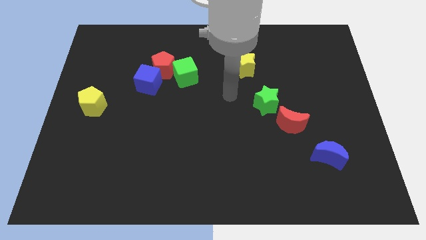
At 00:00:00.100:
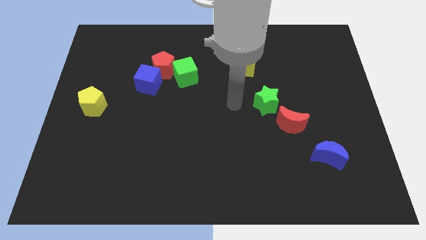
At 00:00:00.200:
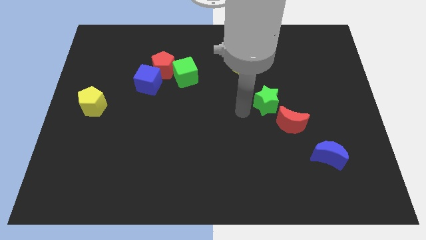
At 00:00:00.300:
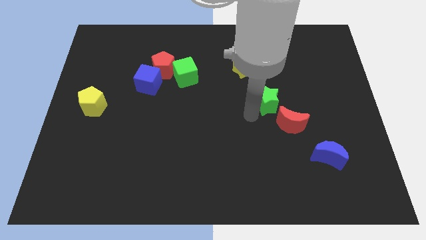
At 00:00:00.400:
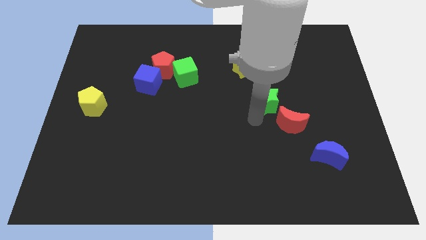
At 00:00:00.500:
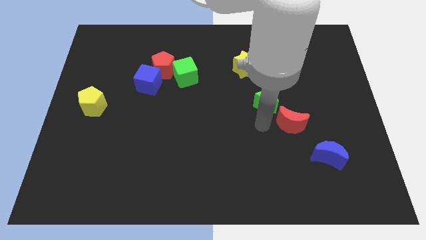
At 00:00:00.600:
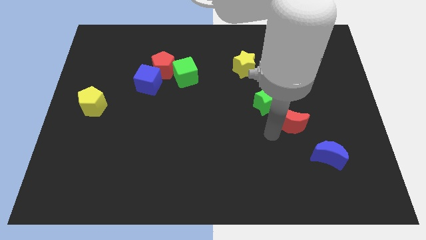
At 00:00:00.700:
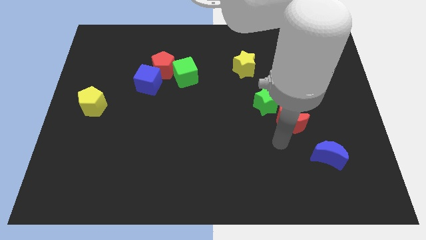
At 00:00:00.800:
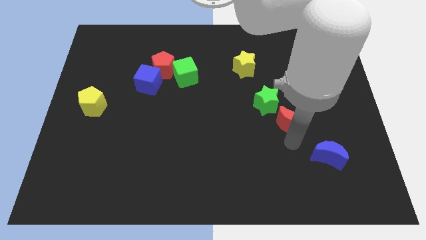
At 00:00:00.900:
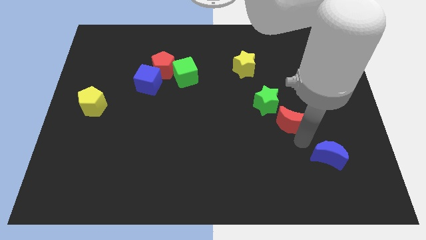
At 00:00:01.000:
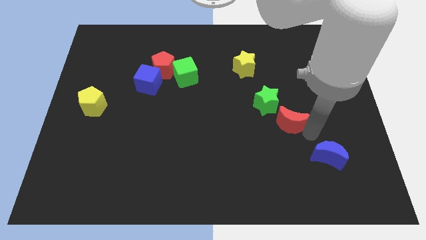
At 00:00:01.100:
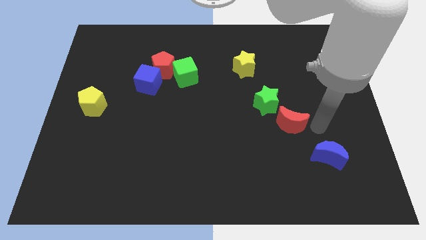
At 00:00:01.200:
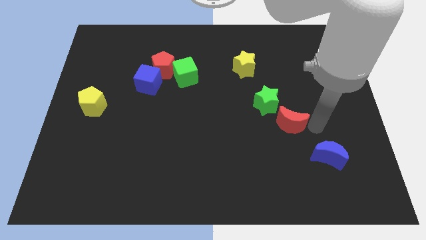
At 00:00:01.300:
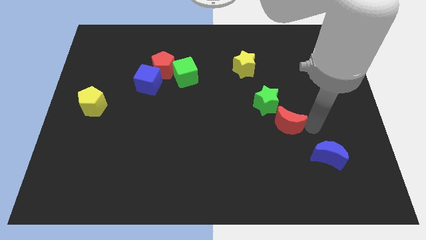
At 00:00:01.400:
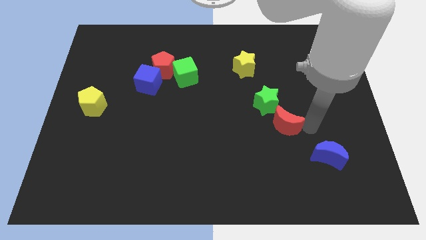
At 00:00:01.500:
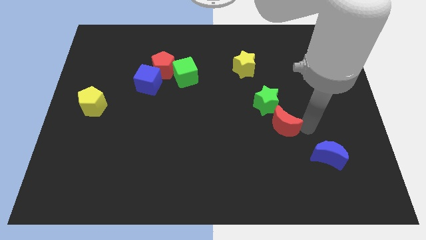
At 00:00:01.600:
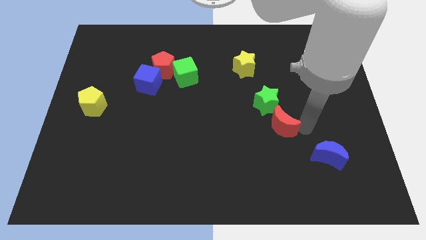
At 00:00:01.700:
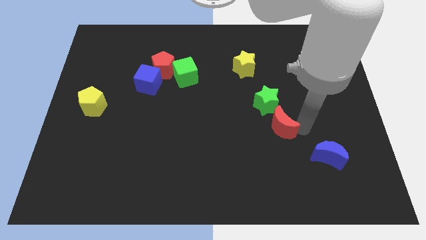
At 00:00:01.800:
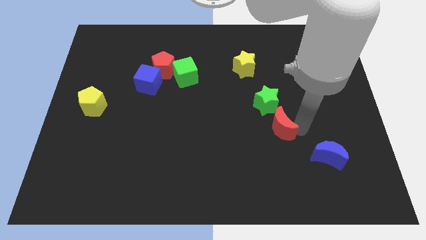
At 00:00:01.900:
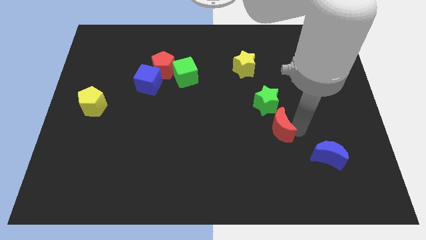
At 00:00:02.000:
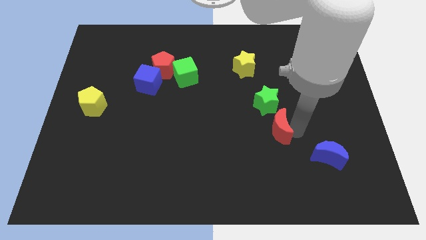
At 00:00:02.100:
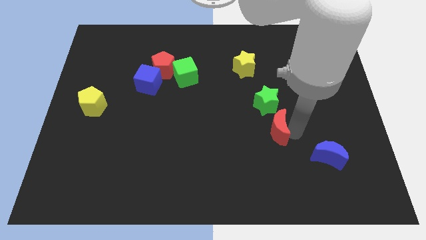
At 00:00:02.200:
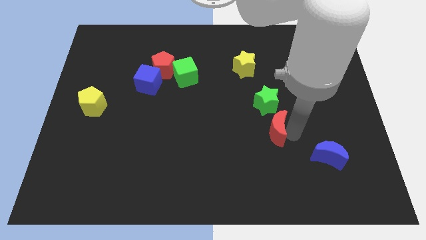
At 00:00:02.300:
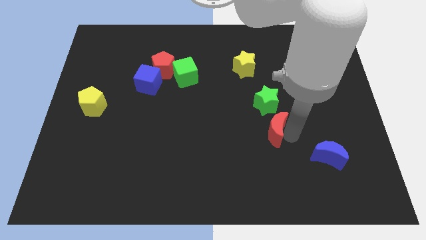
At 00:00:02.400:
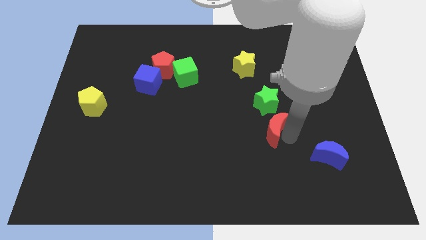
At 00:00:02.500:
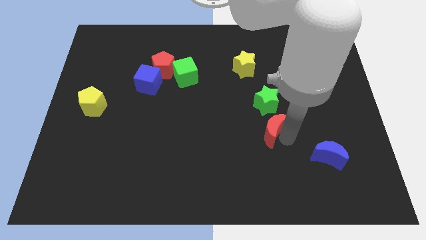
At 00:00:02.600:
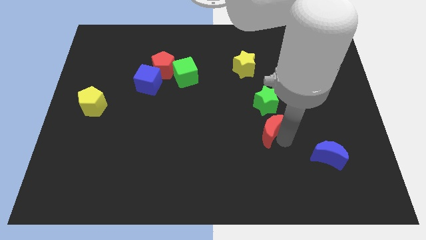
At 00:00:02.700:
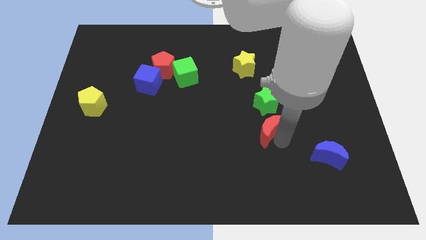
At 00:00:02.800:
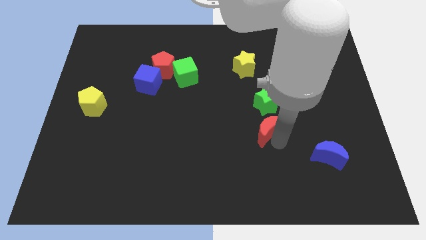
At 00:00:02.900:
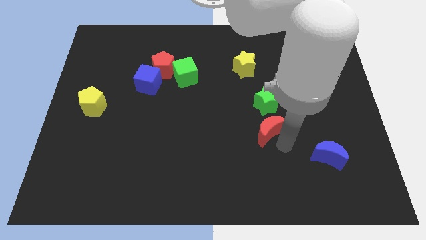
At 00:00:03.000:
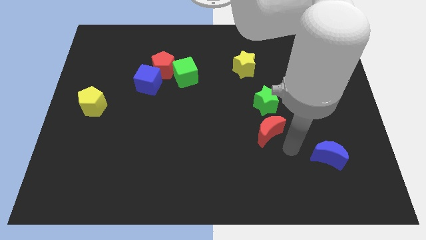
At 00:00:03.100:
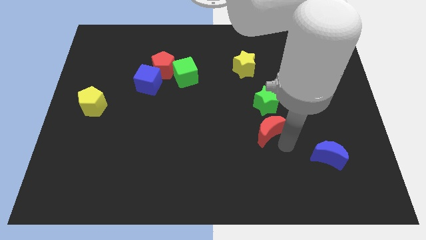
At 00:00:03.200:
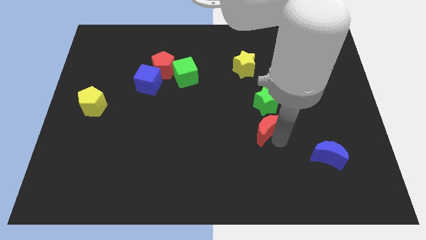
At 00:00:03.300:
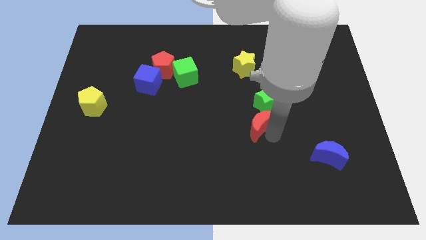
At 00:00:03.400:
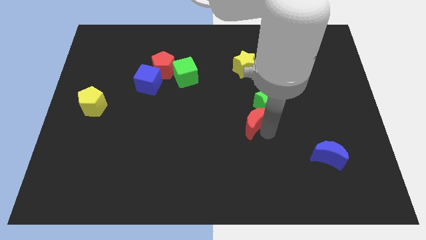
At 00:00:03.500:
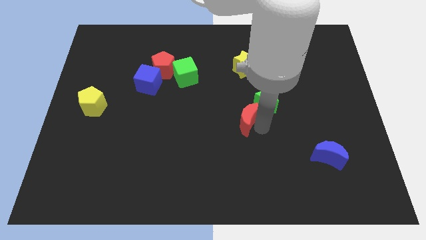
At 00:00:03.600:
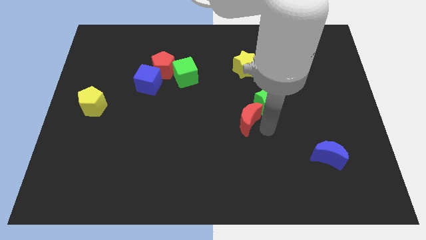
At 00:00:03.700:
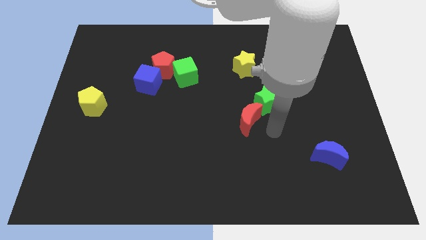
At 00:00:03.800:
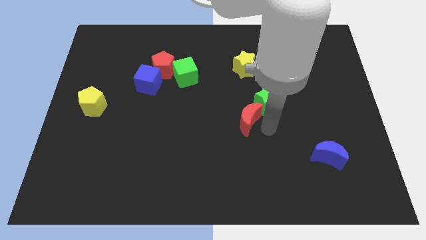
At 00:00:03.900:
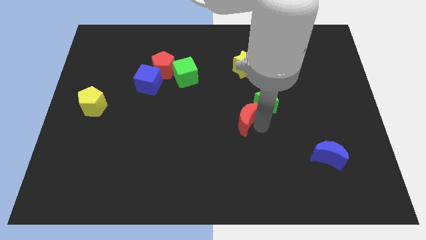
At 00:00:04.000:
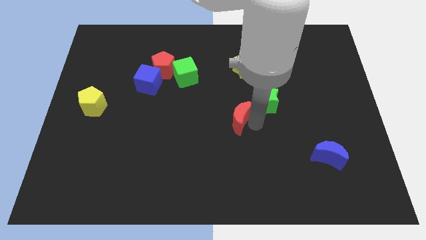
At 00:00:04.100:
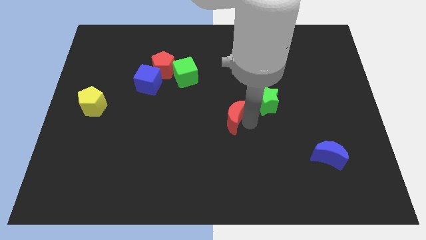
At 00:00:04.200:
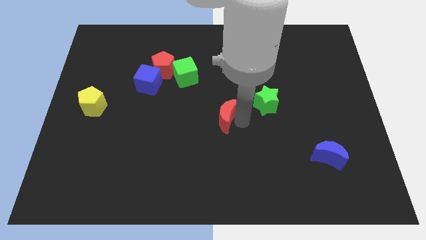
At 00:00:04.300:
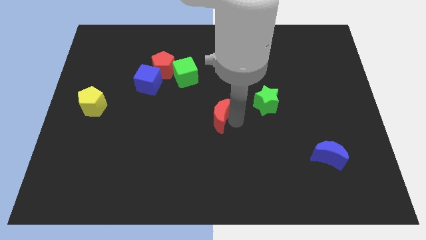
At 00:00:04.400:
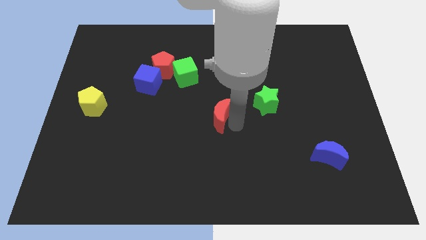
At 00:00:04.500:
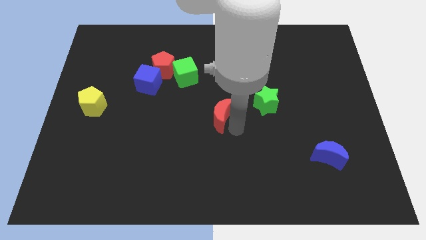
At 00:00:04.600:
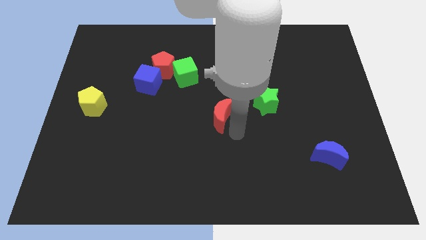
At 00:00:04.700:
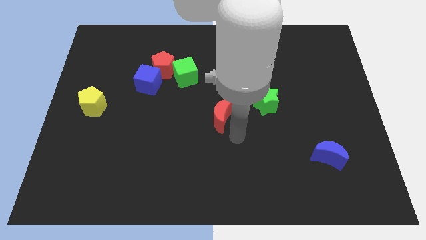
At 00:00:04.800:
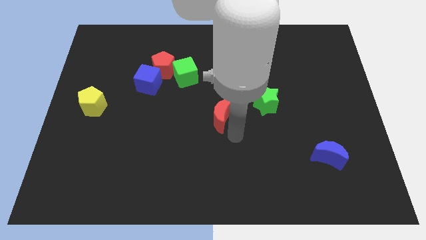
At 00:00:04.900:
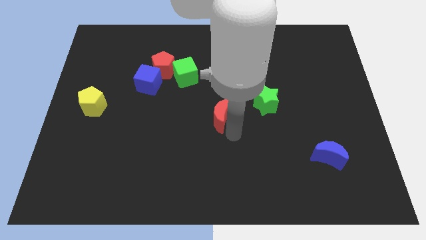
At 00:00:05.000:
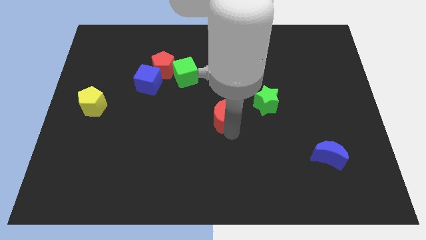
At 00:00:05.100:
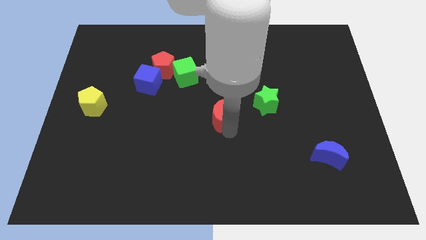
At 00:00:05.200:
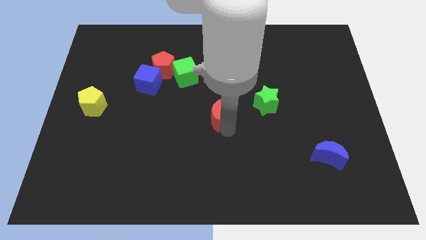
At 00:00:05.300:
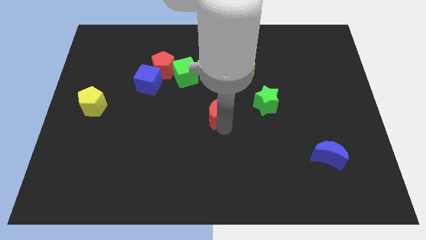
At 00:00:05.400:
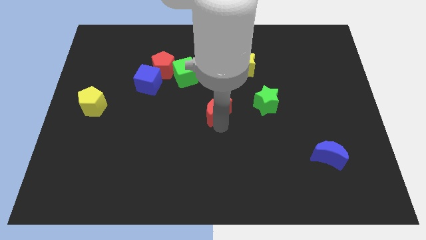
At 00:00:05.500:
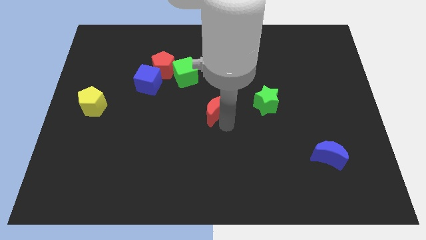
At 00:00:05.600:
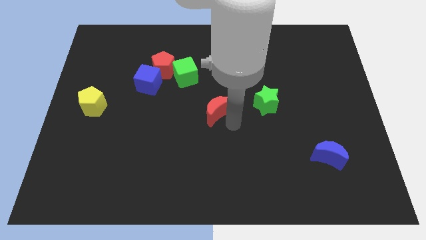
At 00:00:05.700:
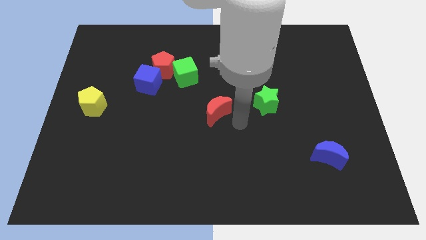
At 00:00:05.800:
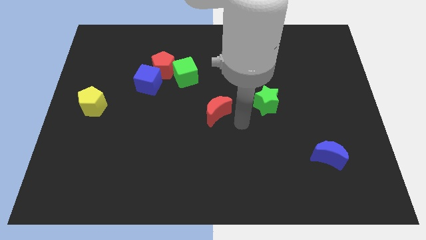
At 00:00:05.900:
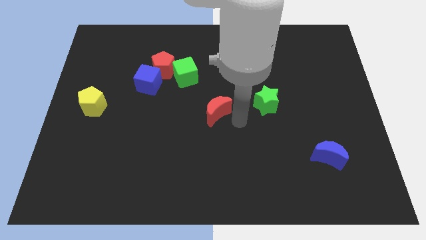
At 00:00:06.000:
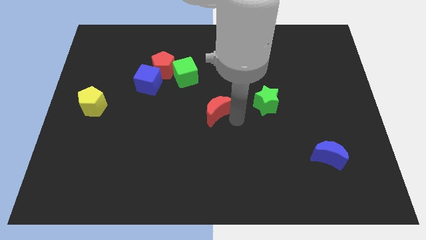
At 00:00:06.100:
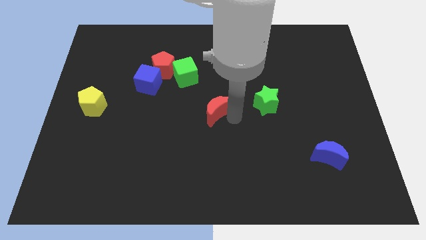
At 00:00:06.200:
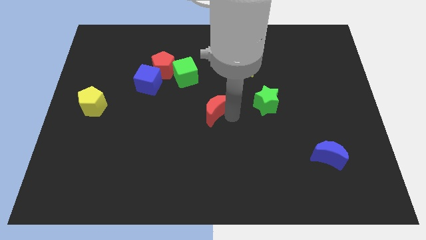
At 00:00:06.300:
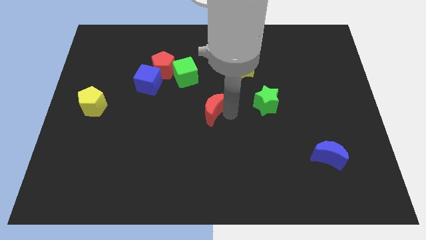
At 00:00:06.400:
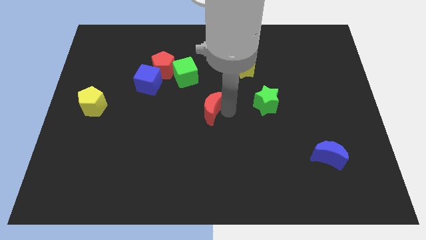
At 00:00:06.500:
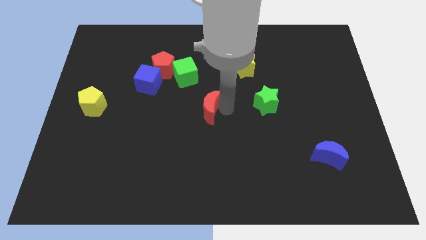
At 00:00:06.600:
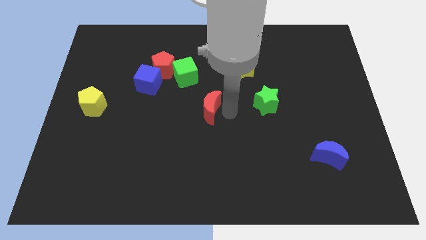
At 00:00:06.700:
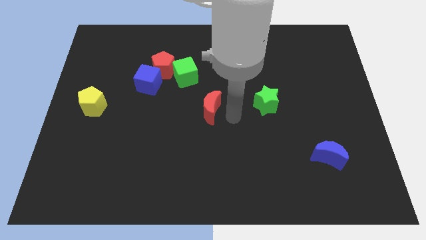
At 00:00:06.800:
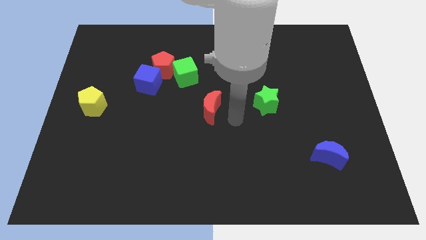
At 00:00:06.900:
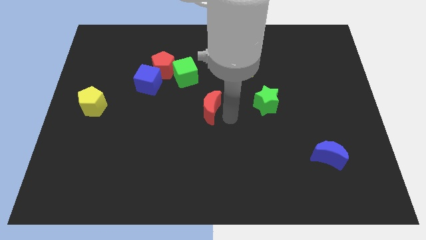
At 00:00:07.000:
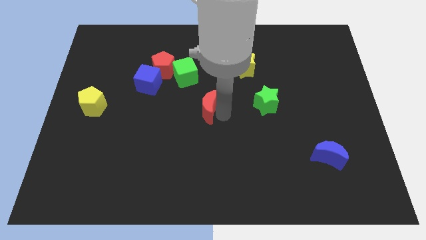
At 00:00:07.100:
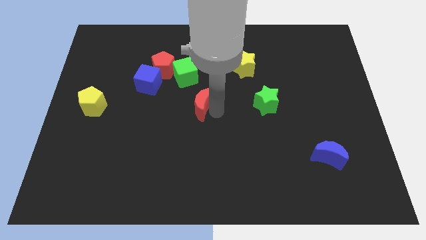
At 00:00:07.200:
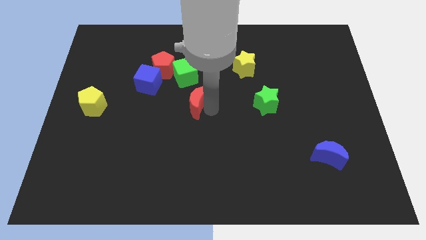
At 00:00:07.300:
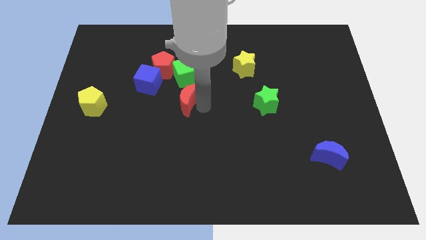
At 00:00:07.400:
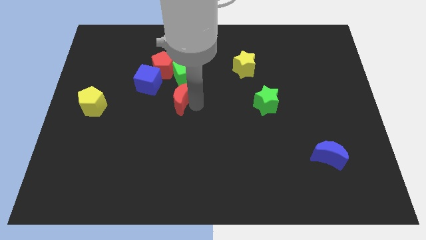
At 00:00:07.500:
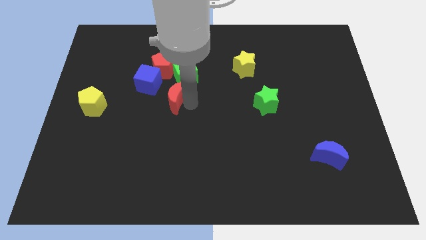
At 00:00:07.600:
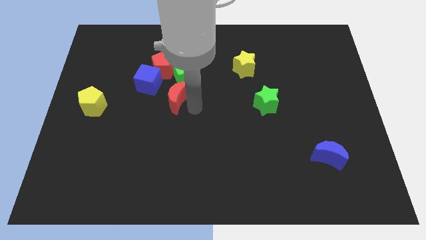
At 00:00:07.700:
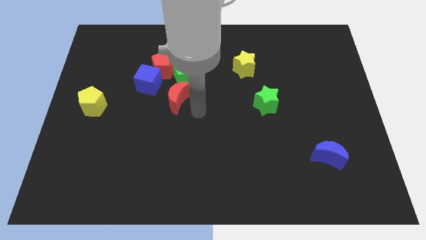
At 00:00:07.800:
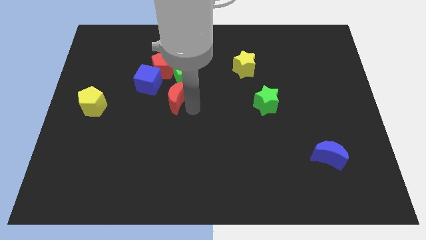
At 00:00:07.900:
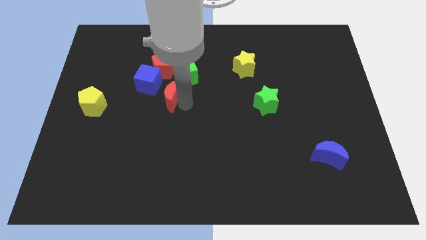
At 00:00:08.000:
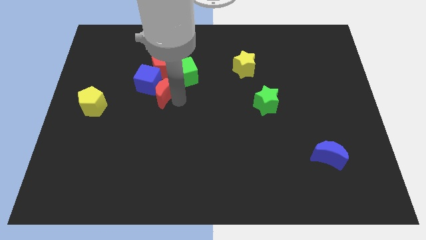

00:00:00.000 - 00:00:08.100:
slide the red moon to the blue cube
